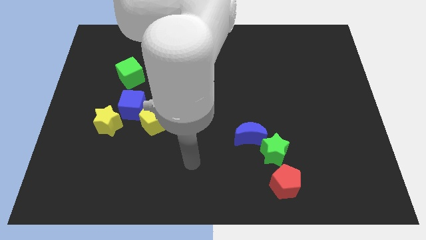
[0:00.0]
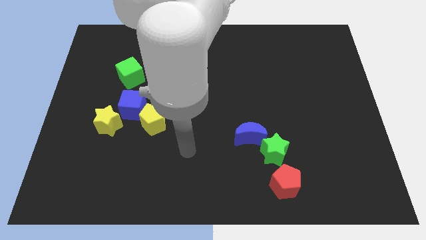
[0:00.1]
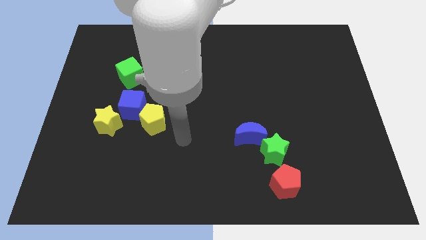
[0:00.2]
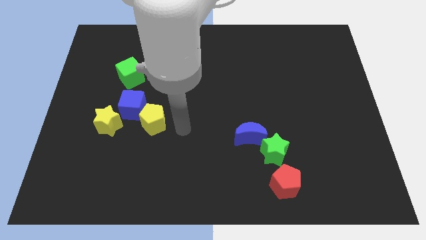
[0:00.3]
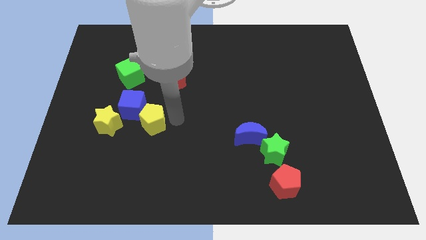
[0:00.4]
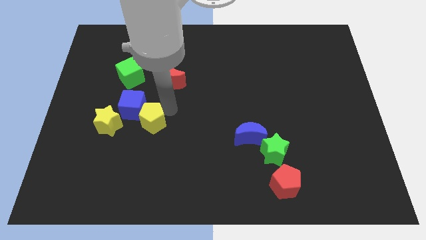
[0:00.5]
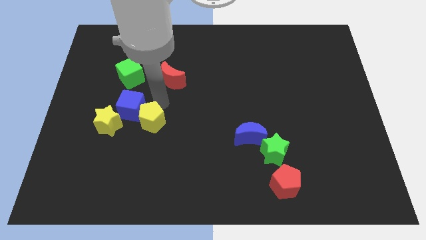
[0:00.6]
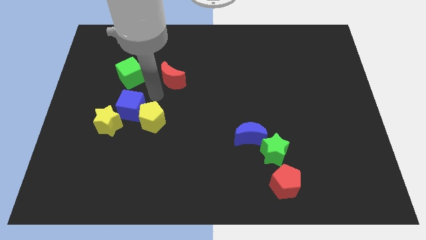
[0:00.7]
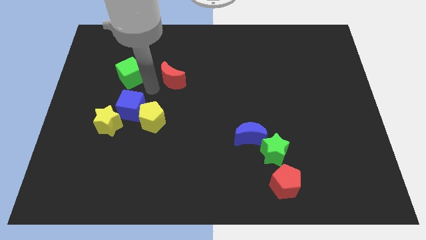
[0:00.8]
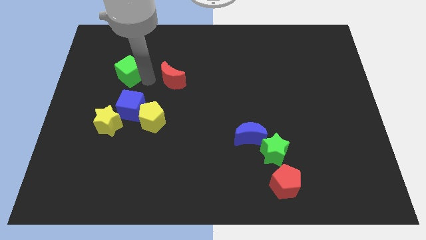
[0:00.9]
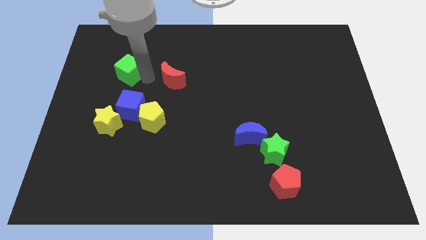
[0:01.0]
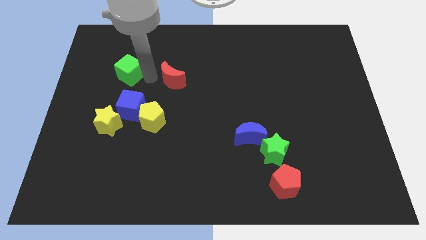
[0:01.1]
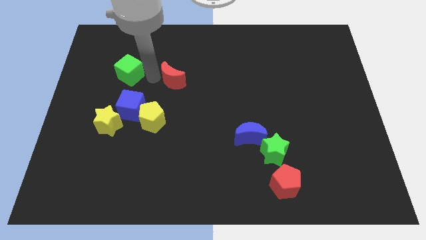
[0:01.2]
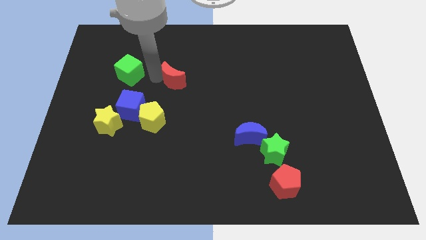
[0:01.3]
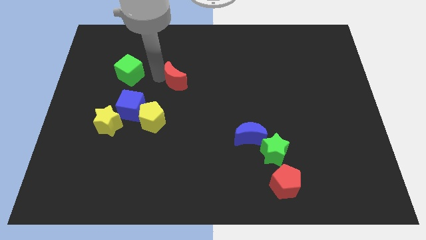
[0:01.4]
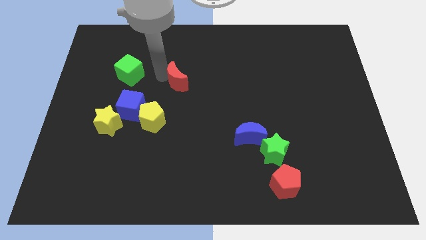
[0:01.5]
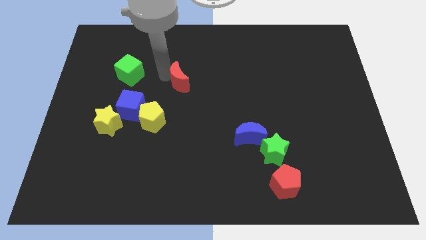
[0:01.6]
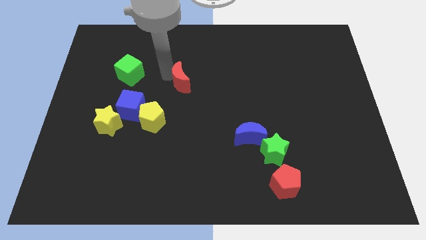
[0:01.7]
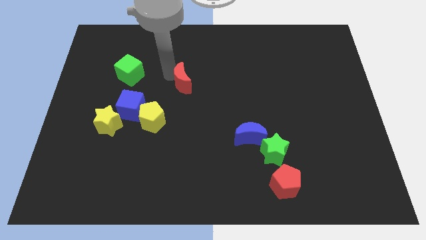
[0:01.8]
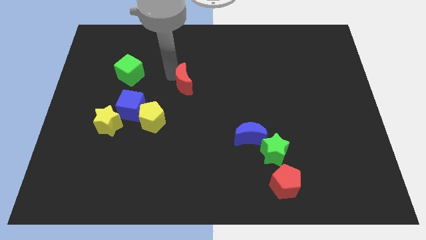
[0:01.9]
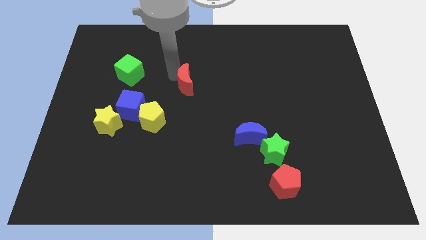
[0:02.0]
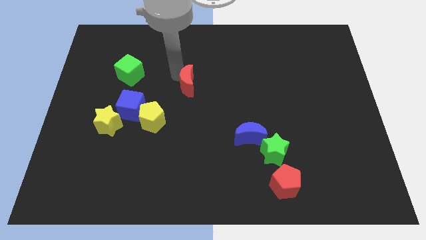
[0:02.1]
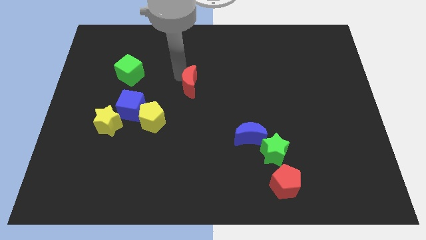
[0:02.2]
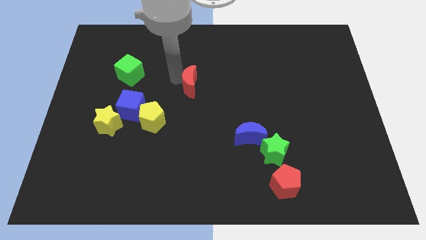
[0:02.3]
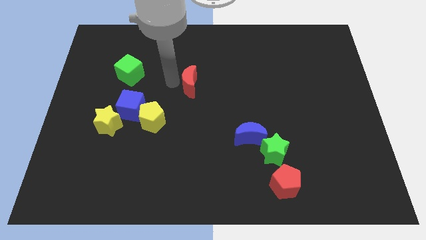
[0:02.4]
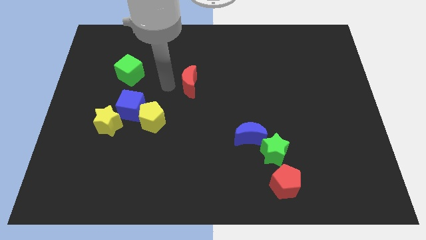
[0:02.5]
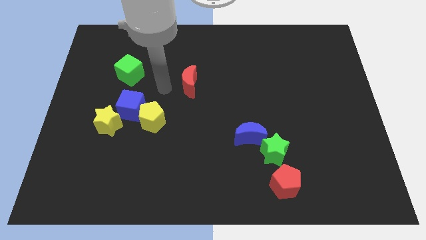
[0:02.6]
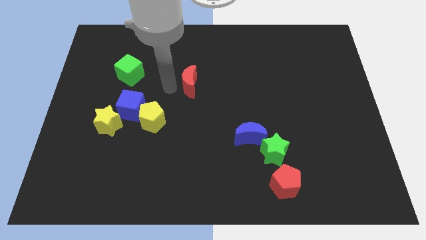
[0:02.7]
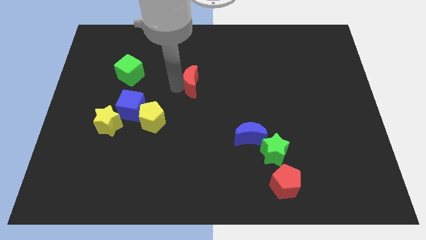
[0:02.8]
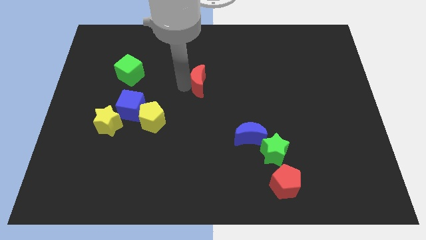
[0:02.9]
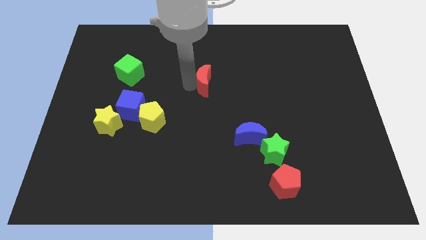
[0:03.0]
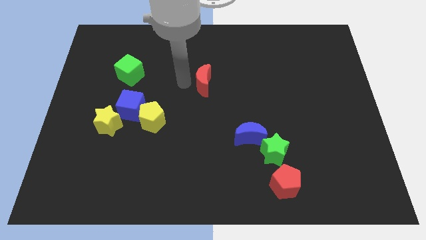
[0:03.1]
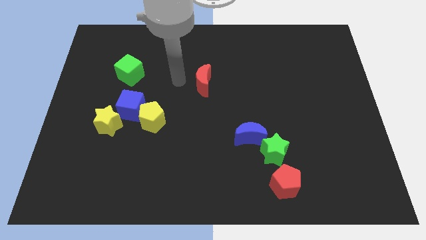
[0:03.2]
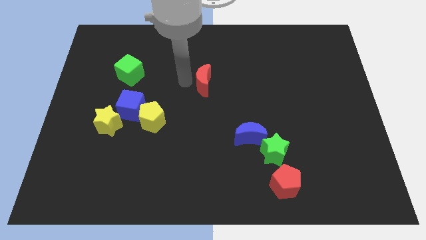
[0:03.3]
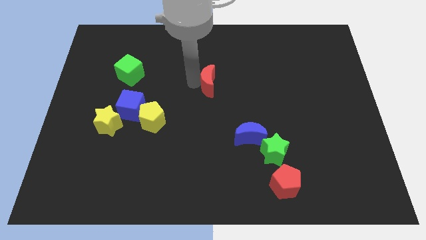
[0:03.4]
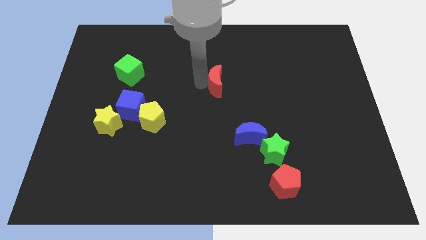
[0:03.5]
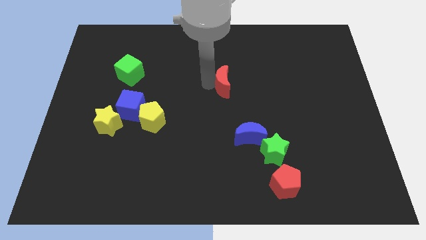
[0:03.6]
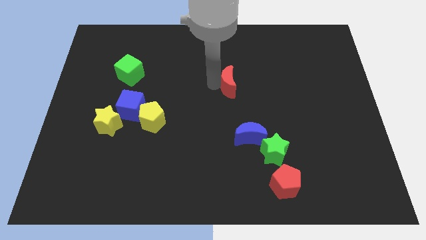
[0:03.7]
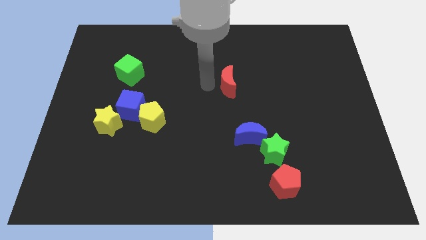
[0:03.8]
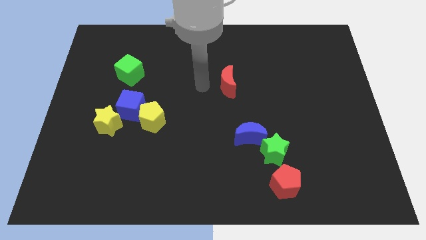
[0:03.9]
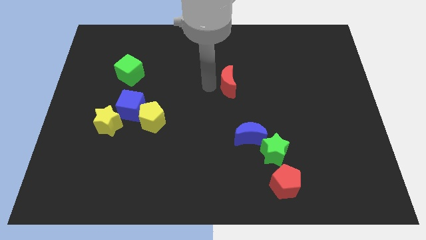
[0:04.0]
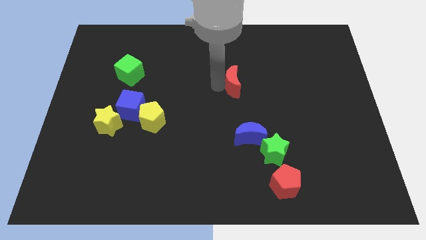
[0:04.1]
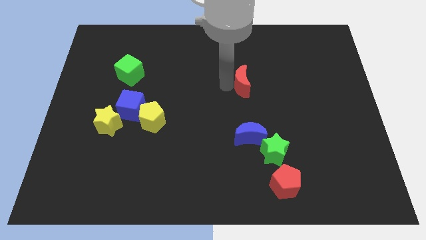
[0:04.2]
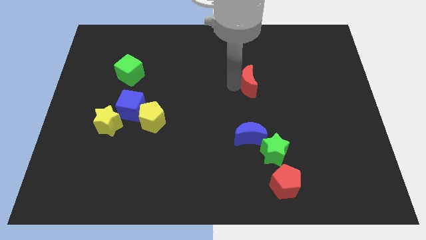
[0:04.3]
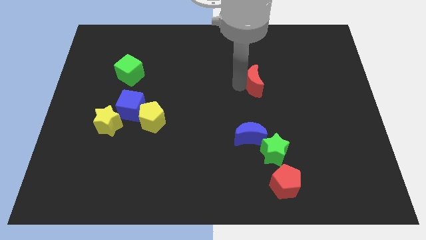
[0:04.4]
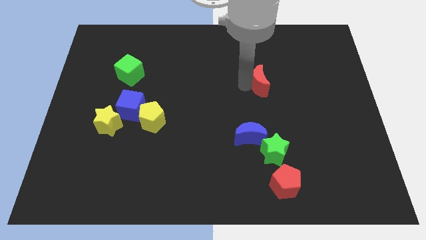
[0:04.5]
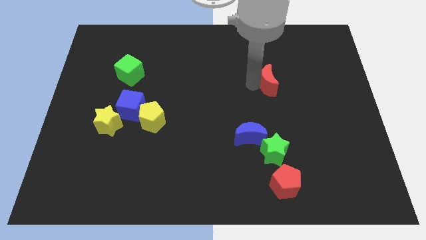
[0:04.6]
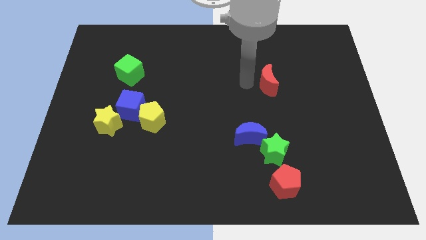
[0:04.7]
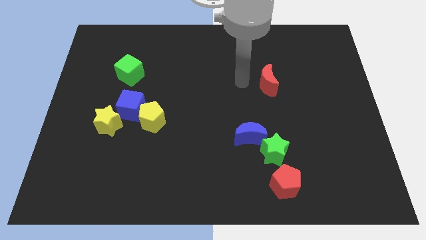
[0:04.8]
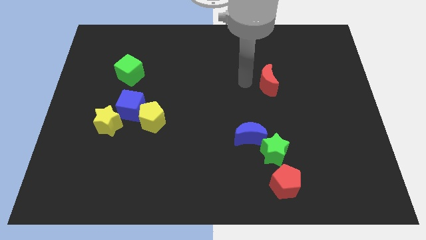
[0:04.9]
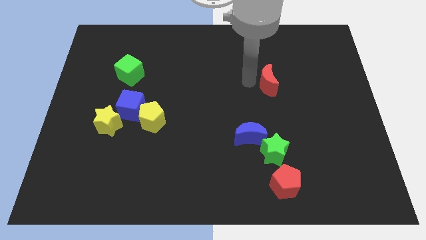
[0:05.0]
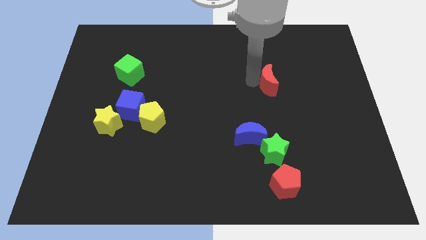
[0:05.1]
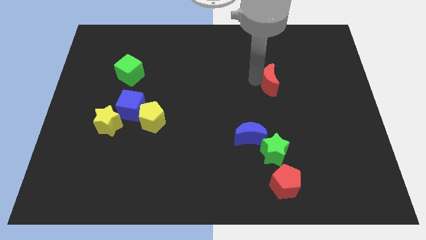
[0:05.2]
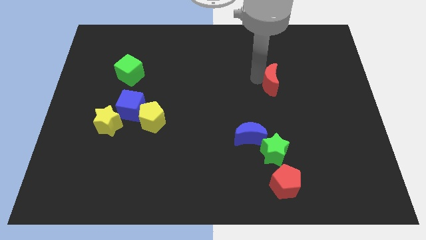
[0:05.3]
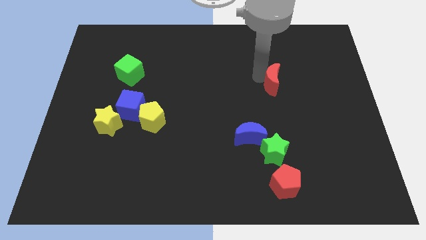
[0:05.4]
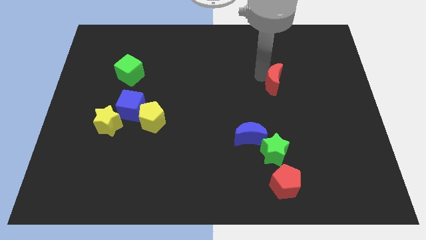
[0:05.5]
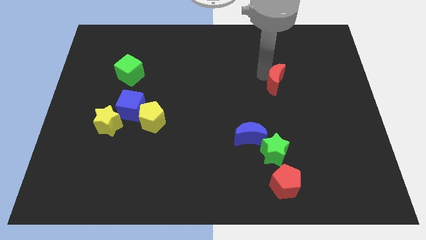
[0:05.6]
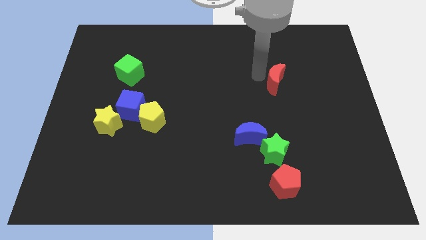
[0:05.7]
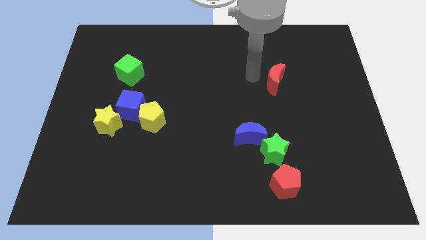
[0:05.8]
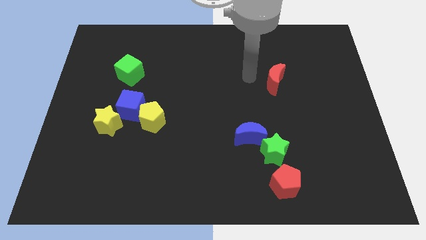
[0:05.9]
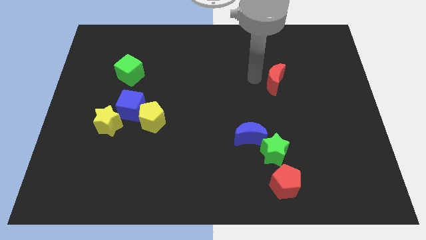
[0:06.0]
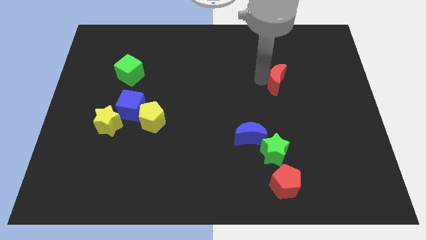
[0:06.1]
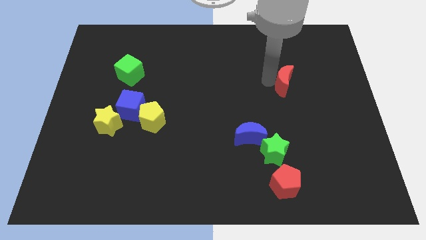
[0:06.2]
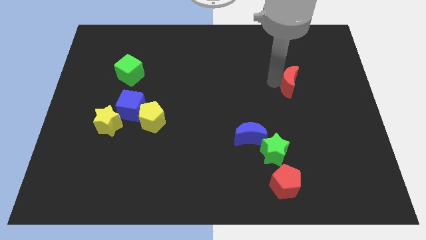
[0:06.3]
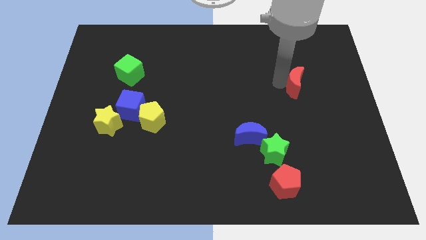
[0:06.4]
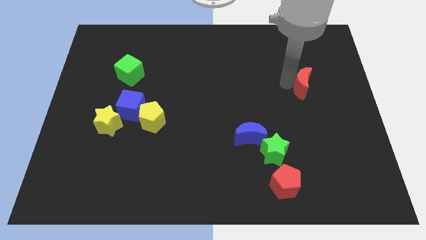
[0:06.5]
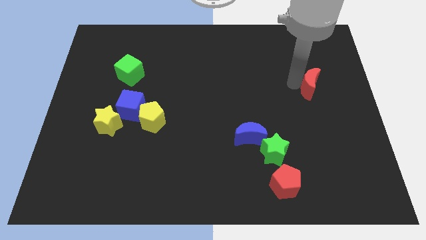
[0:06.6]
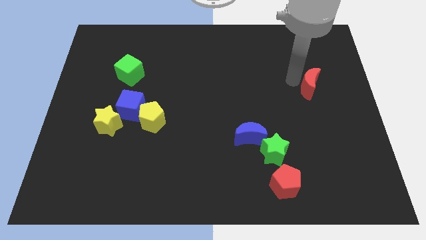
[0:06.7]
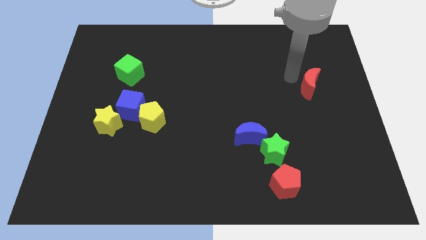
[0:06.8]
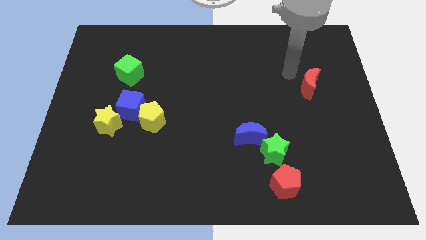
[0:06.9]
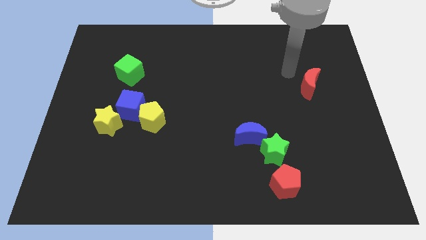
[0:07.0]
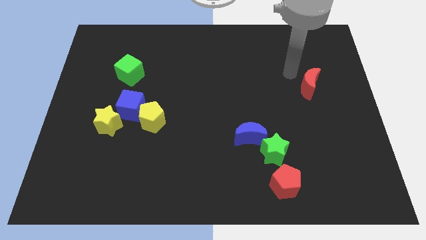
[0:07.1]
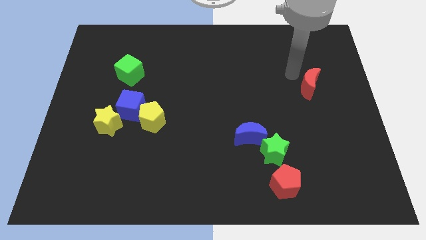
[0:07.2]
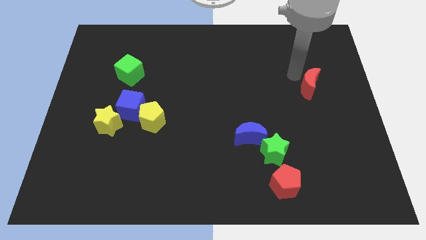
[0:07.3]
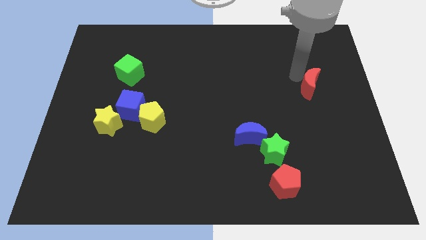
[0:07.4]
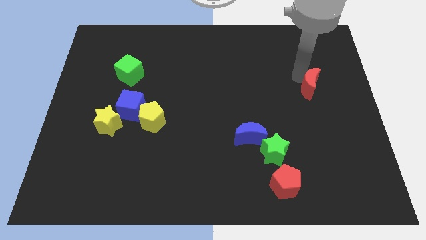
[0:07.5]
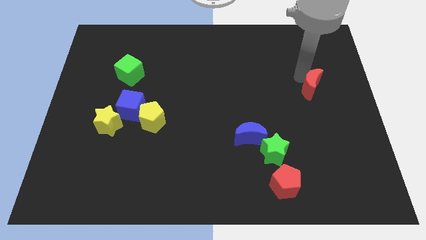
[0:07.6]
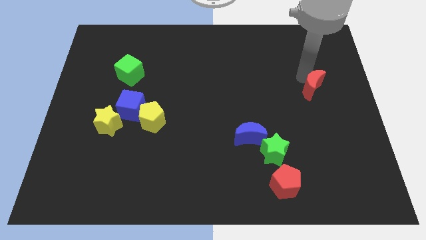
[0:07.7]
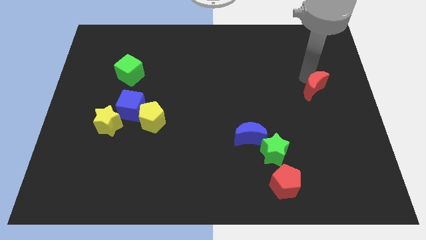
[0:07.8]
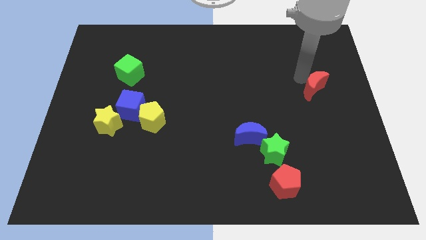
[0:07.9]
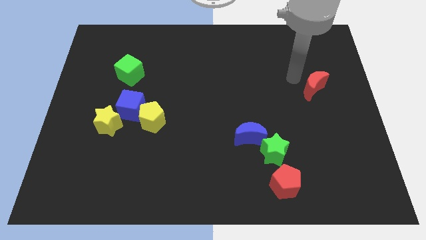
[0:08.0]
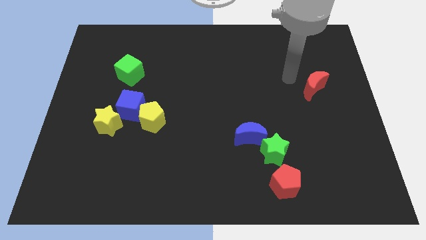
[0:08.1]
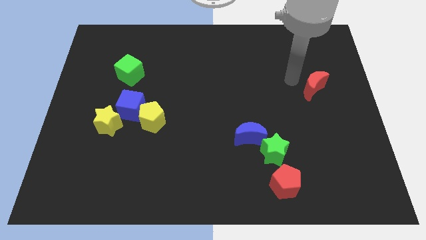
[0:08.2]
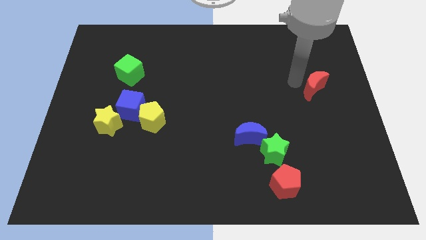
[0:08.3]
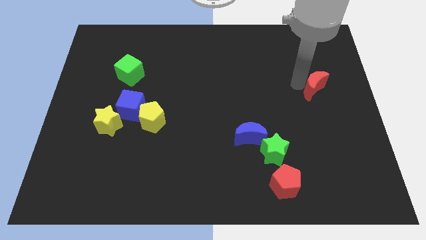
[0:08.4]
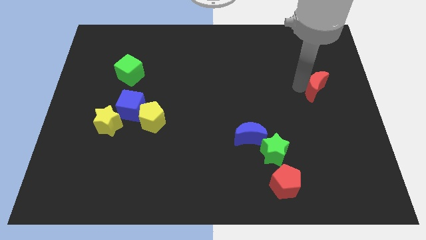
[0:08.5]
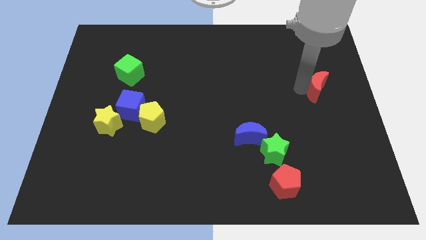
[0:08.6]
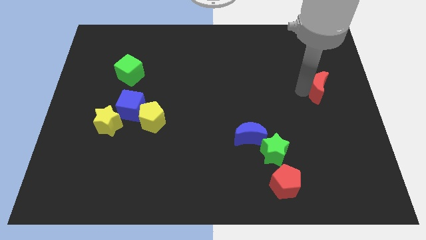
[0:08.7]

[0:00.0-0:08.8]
slide the red moon to the center right
